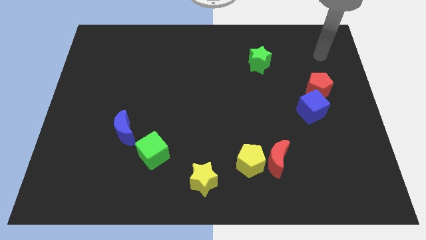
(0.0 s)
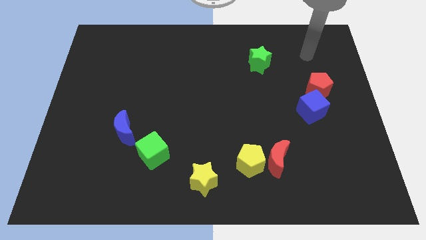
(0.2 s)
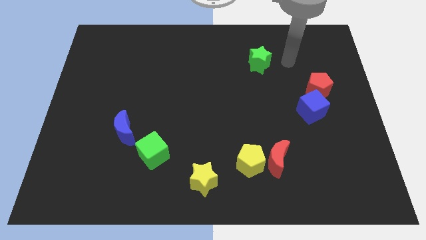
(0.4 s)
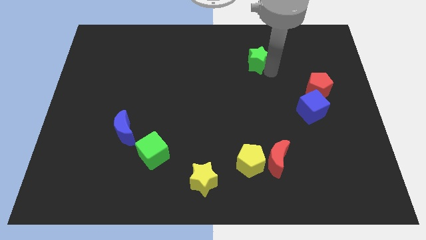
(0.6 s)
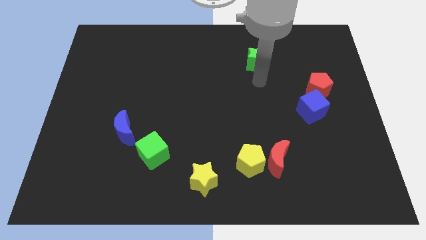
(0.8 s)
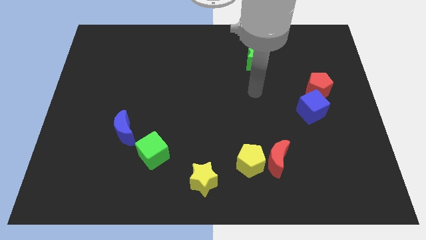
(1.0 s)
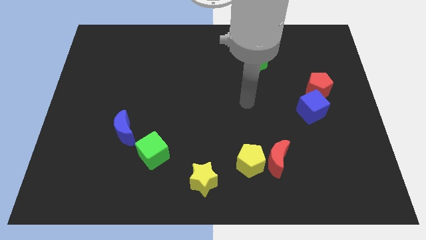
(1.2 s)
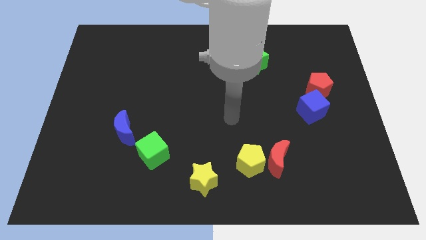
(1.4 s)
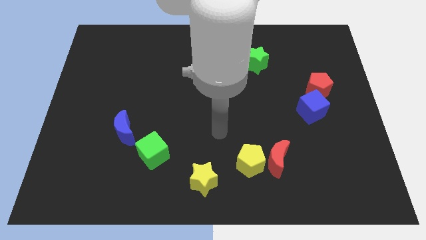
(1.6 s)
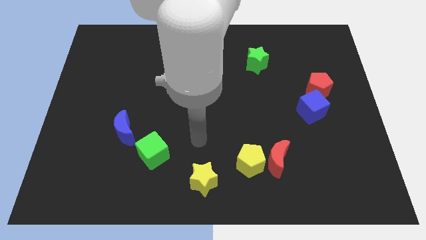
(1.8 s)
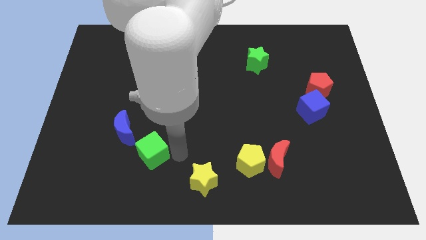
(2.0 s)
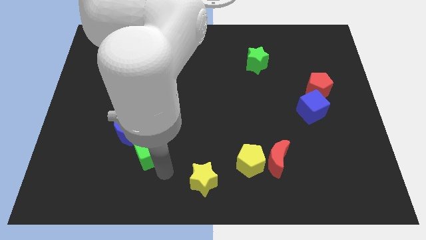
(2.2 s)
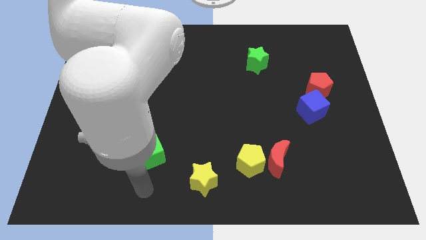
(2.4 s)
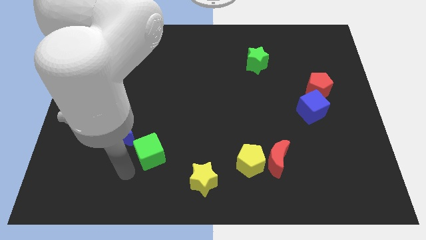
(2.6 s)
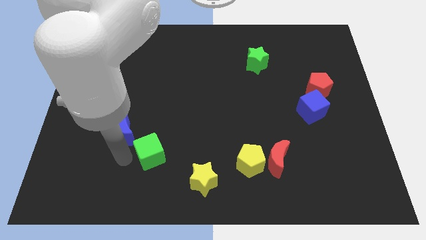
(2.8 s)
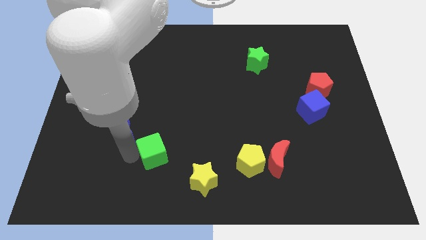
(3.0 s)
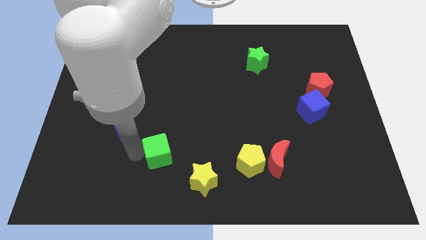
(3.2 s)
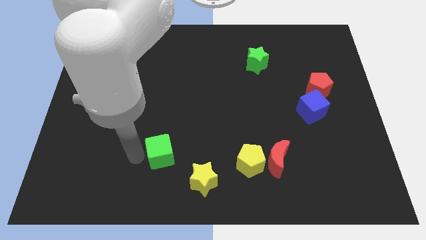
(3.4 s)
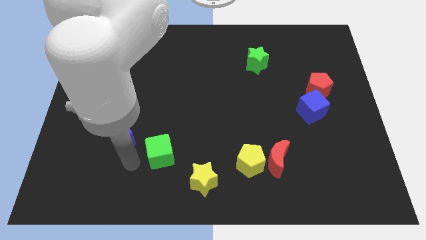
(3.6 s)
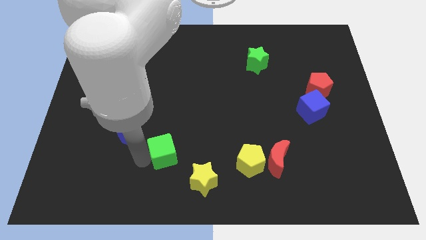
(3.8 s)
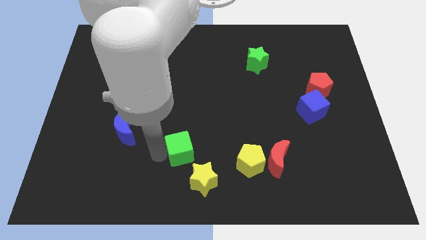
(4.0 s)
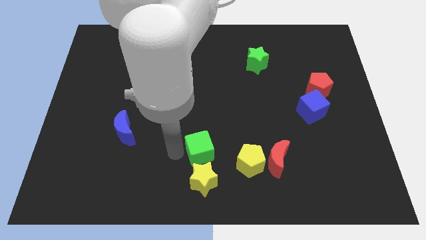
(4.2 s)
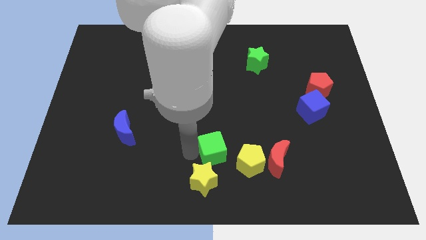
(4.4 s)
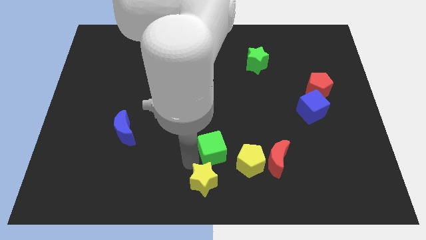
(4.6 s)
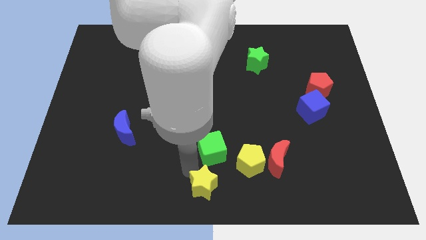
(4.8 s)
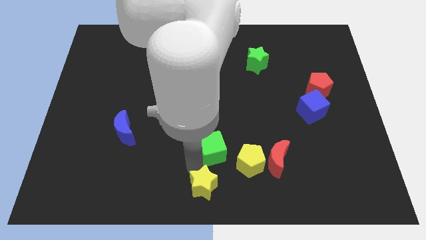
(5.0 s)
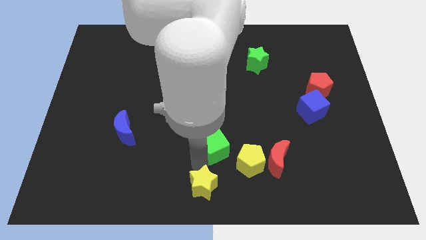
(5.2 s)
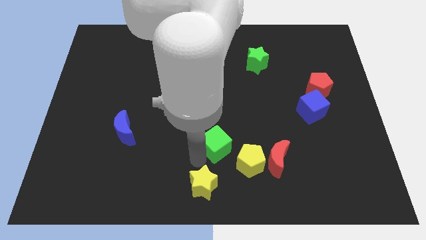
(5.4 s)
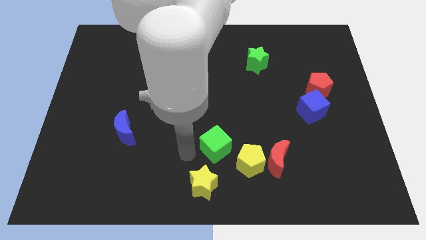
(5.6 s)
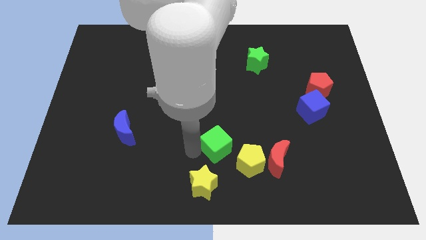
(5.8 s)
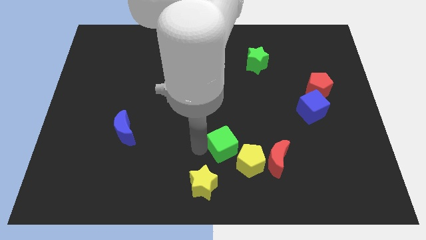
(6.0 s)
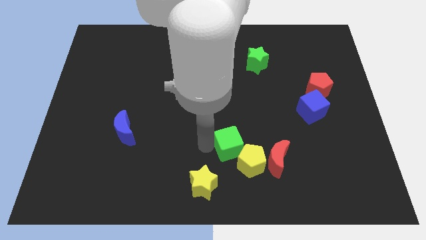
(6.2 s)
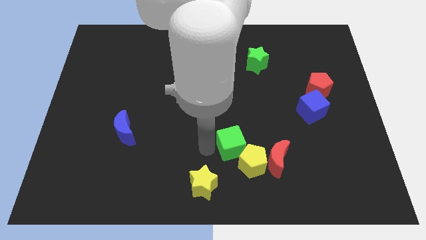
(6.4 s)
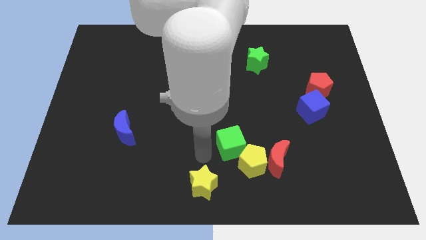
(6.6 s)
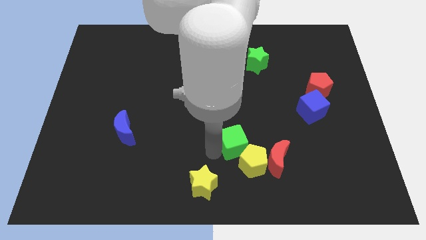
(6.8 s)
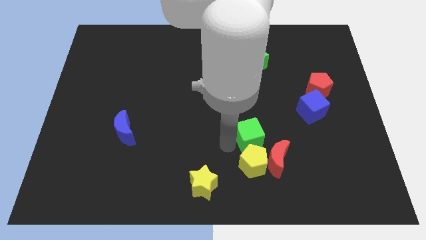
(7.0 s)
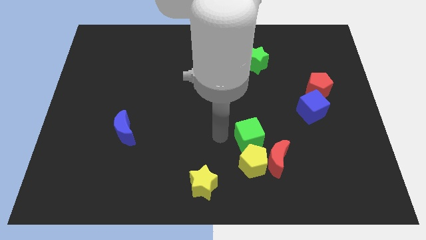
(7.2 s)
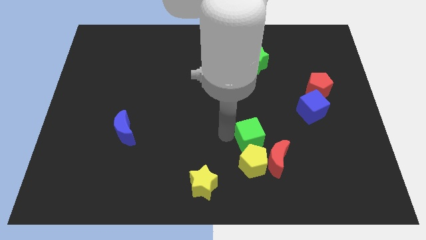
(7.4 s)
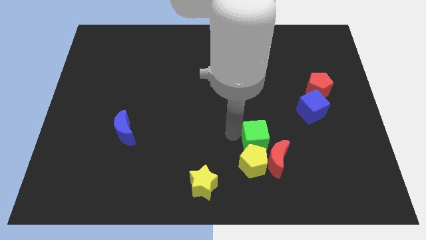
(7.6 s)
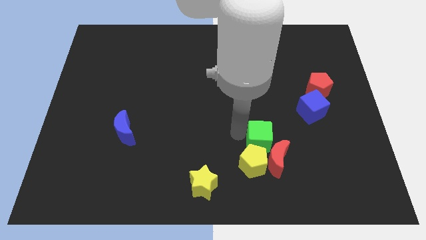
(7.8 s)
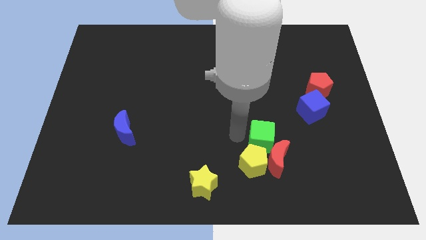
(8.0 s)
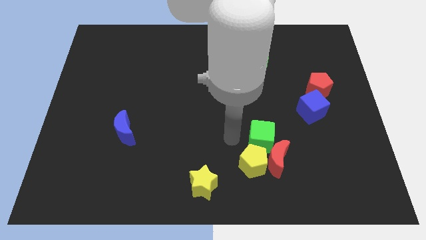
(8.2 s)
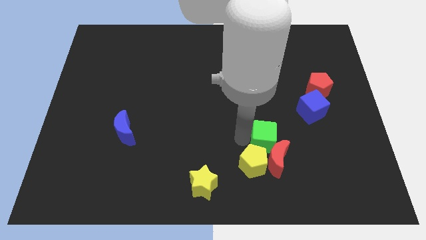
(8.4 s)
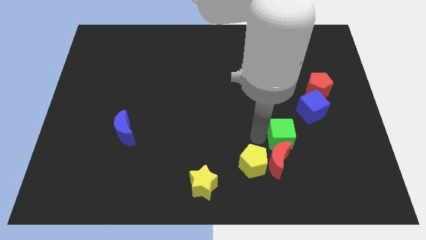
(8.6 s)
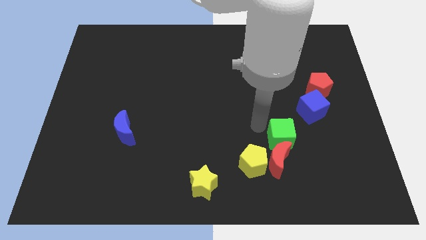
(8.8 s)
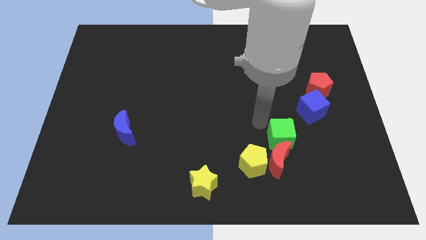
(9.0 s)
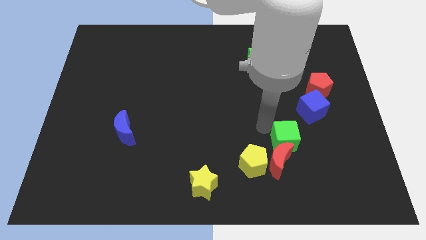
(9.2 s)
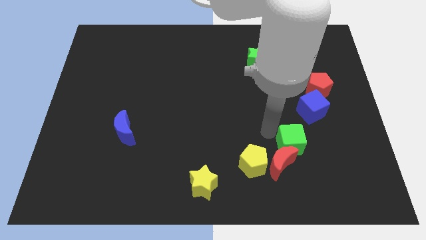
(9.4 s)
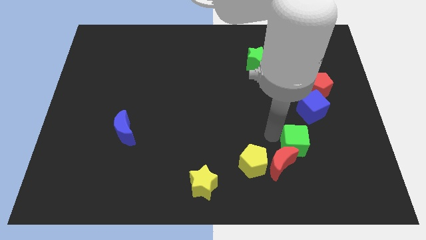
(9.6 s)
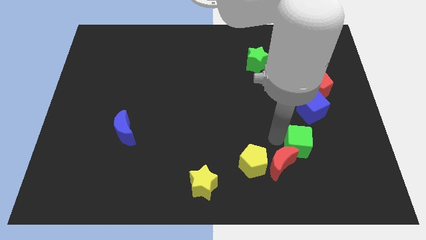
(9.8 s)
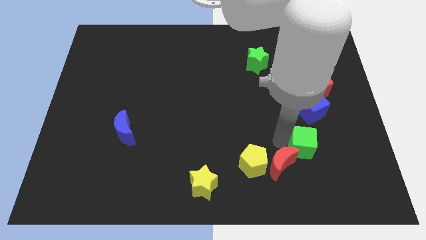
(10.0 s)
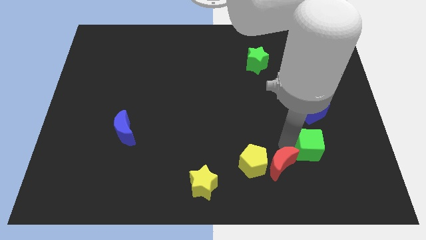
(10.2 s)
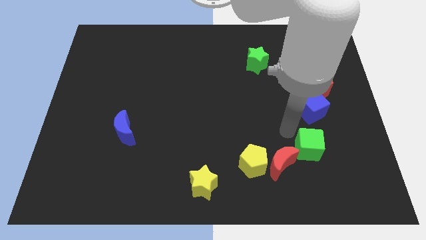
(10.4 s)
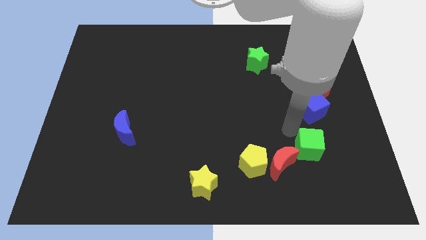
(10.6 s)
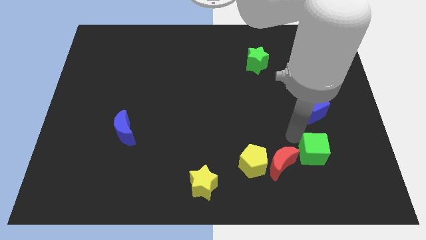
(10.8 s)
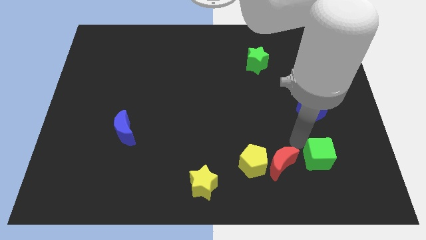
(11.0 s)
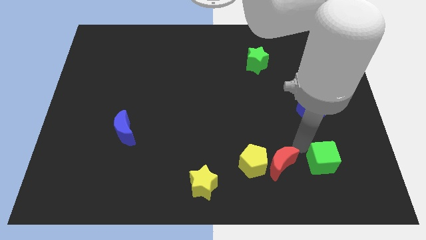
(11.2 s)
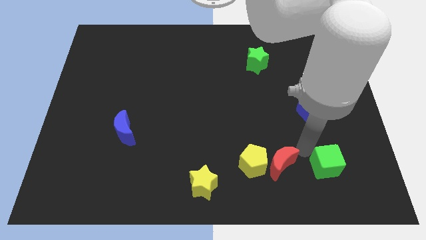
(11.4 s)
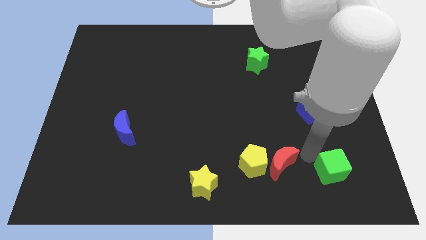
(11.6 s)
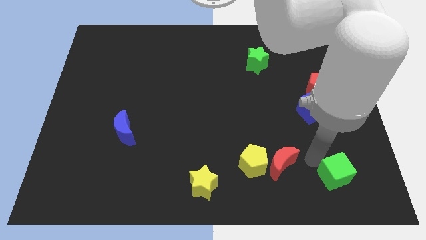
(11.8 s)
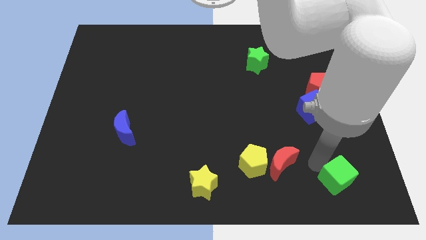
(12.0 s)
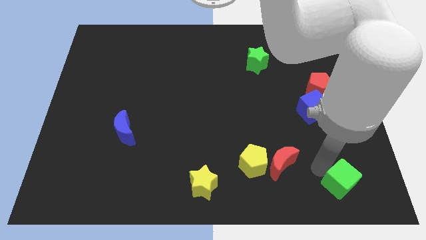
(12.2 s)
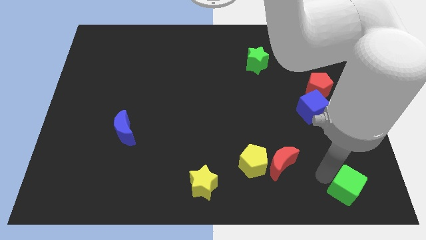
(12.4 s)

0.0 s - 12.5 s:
push the green cube to the bottom right of the board

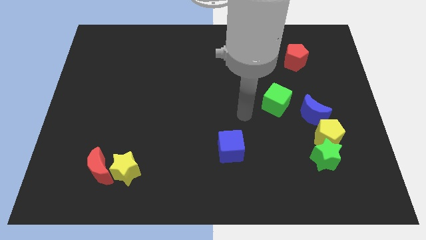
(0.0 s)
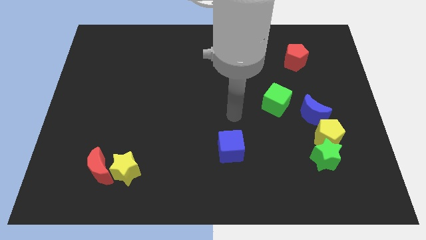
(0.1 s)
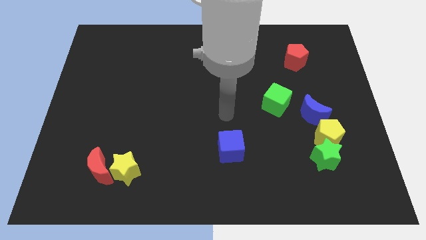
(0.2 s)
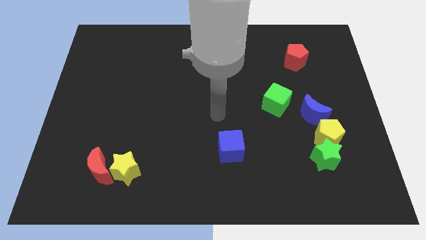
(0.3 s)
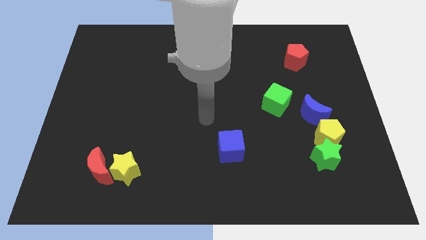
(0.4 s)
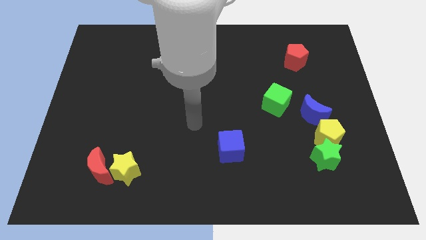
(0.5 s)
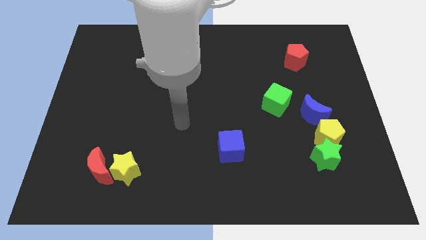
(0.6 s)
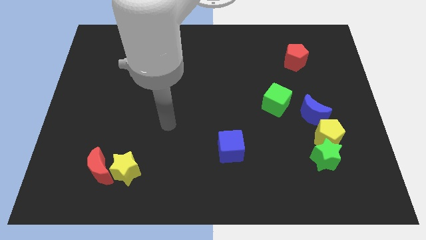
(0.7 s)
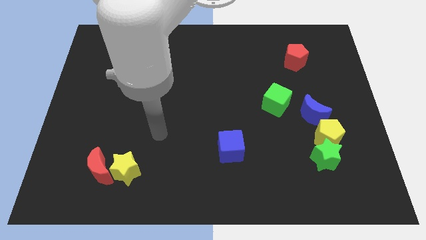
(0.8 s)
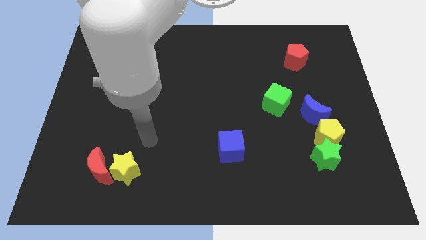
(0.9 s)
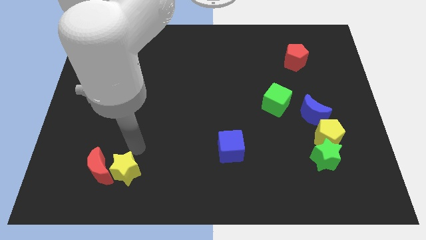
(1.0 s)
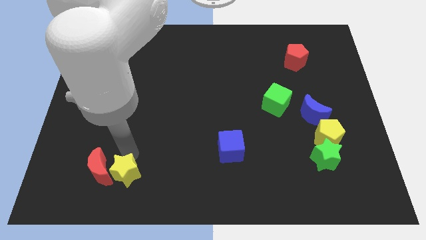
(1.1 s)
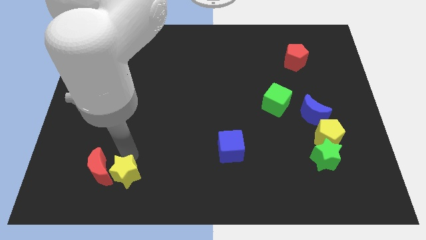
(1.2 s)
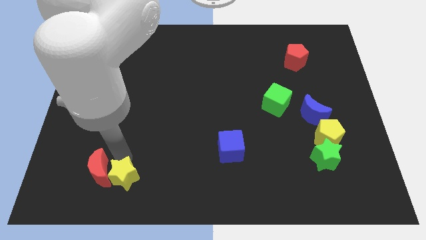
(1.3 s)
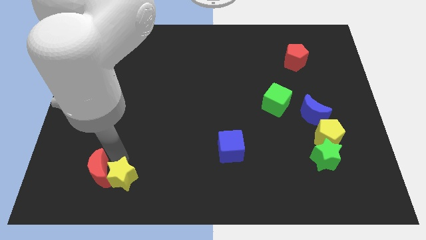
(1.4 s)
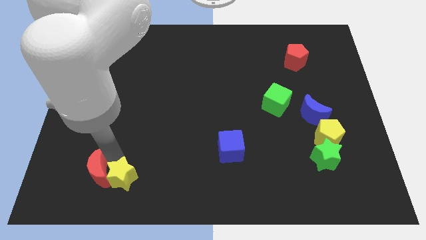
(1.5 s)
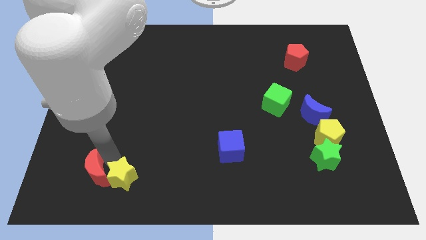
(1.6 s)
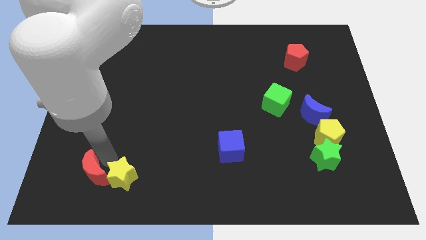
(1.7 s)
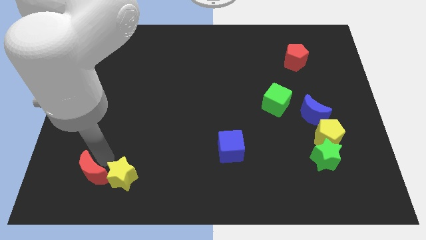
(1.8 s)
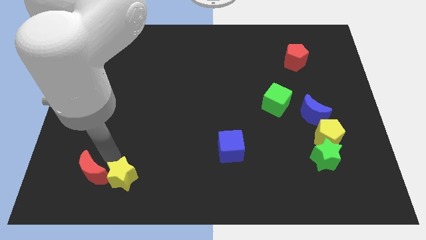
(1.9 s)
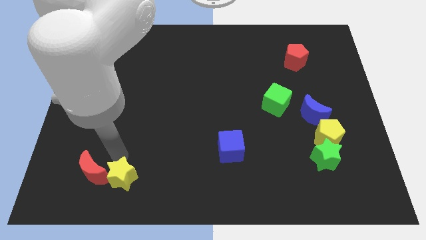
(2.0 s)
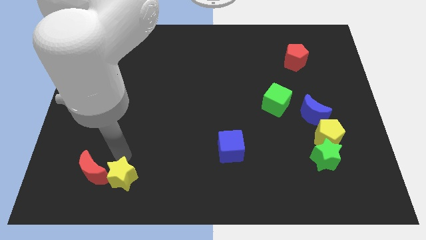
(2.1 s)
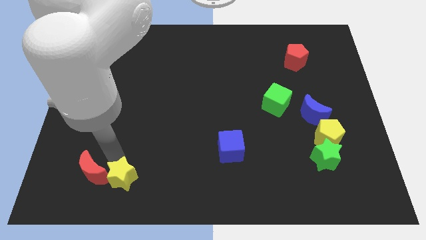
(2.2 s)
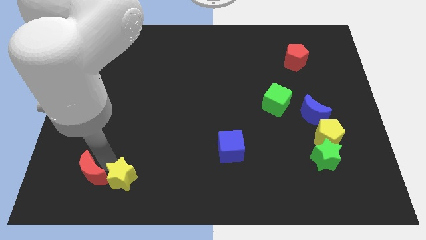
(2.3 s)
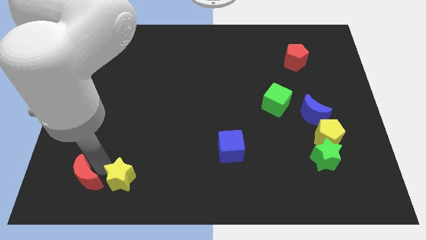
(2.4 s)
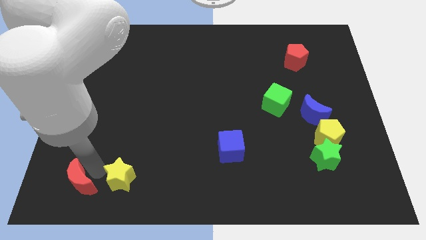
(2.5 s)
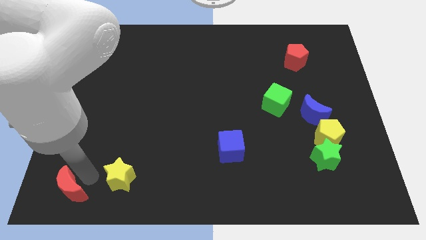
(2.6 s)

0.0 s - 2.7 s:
put the red moon to the bottom left
